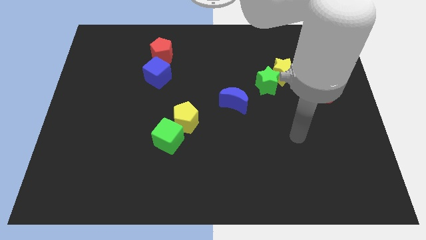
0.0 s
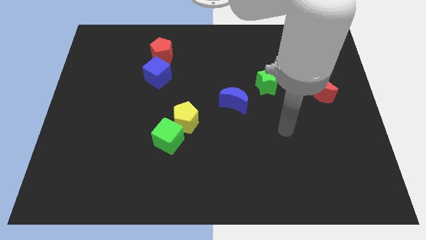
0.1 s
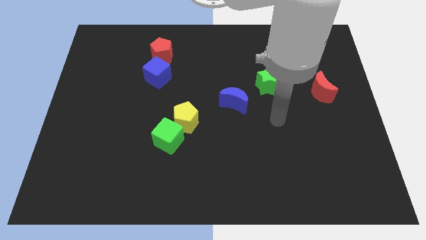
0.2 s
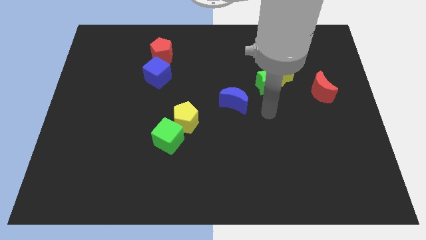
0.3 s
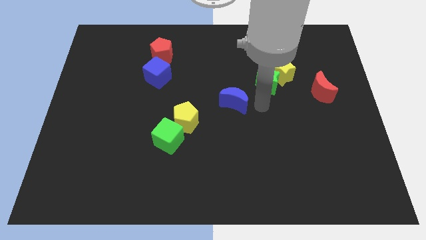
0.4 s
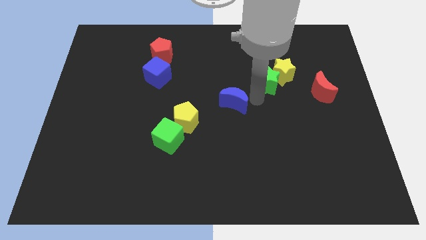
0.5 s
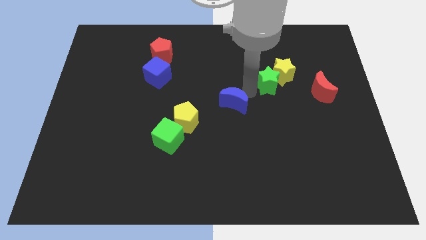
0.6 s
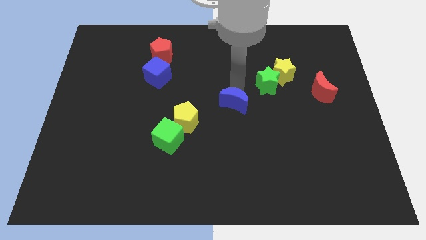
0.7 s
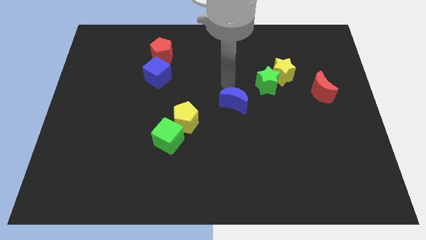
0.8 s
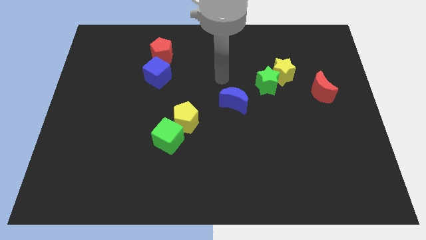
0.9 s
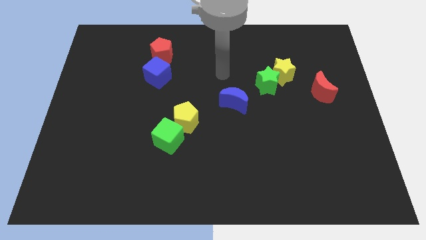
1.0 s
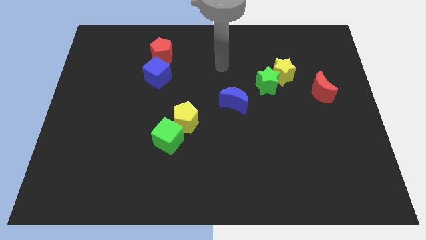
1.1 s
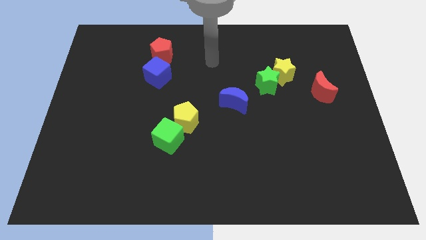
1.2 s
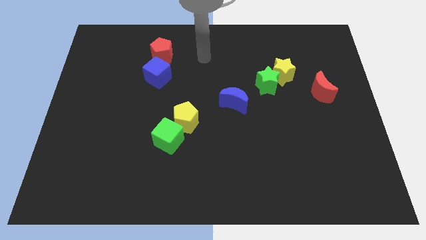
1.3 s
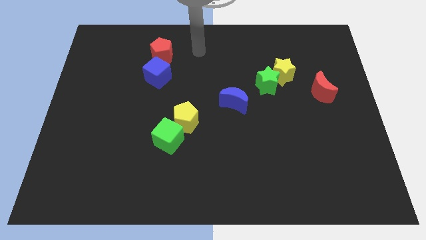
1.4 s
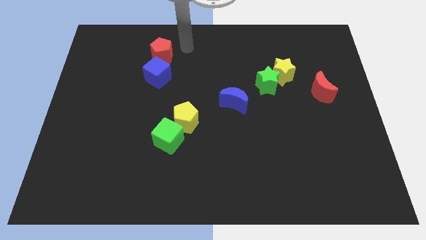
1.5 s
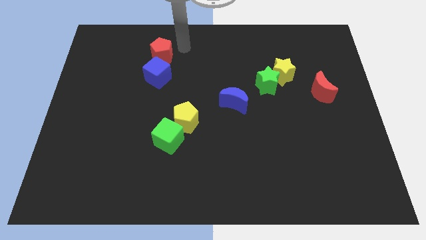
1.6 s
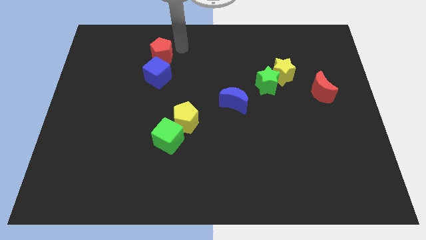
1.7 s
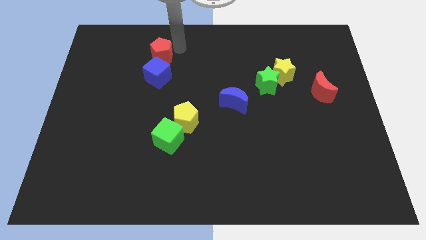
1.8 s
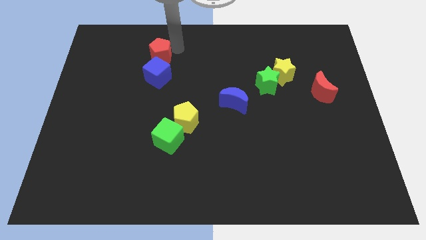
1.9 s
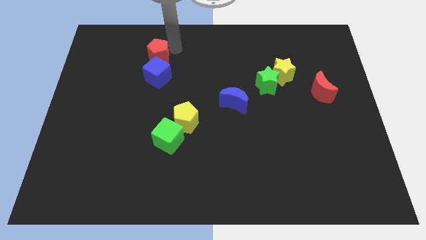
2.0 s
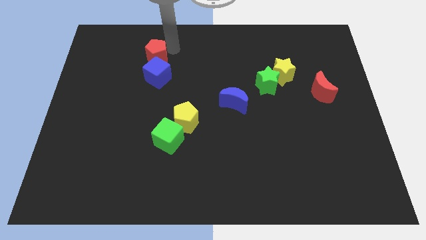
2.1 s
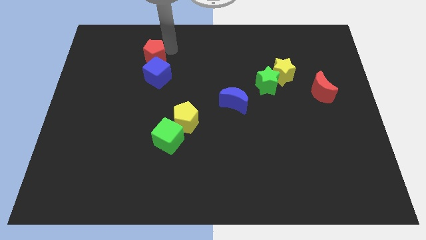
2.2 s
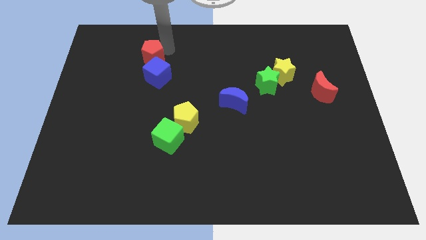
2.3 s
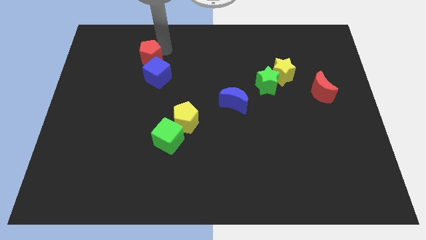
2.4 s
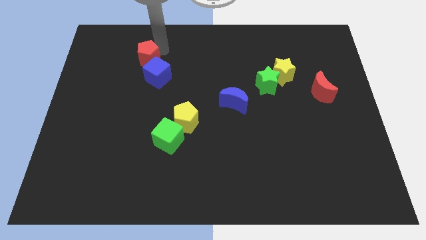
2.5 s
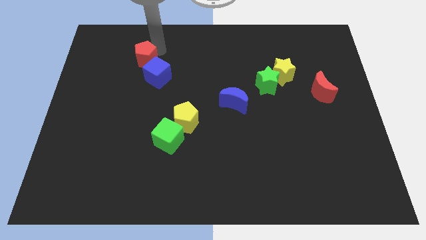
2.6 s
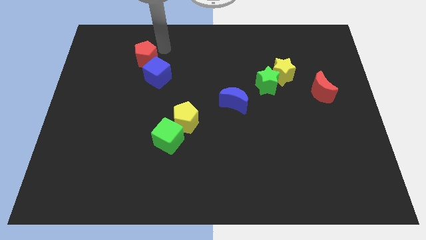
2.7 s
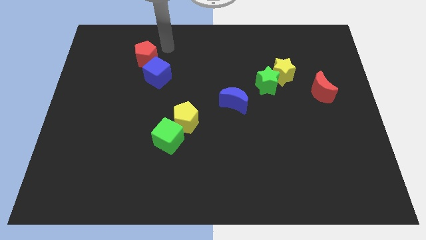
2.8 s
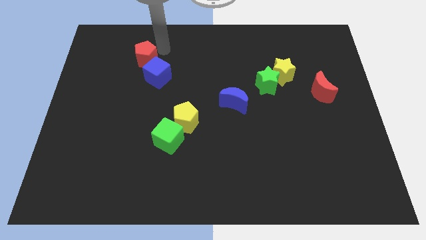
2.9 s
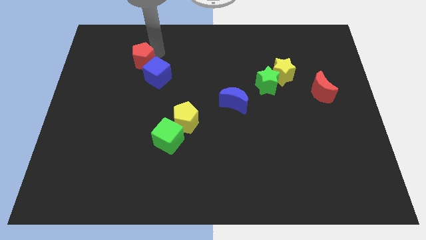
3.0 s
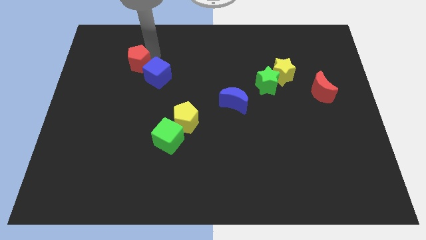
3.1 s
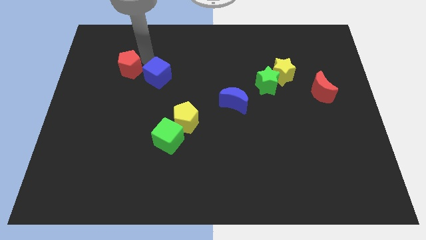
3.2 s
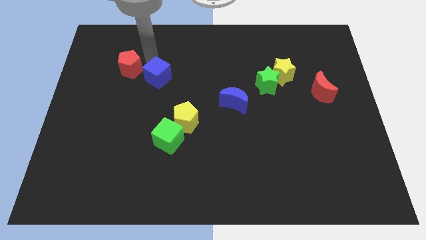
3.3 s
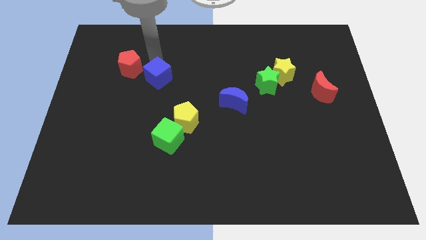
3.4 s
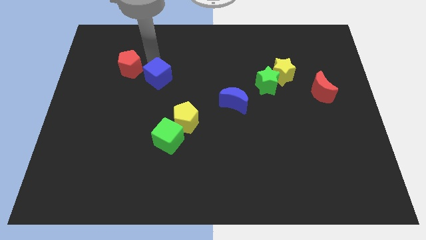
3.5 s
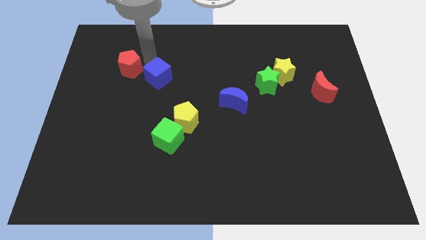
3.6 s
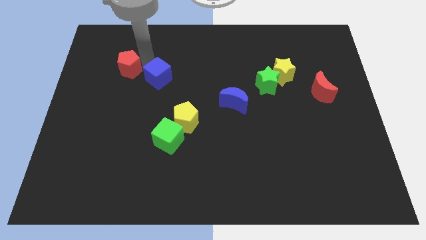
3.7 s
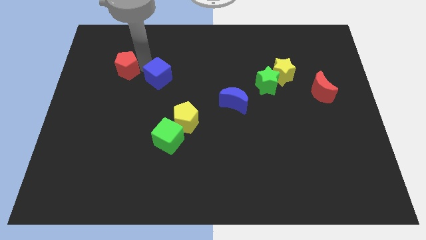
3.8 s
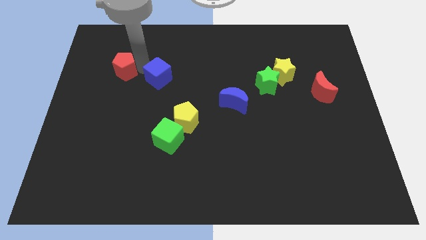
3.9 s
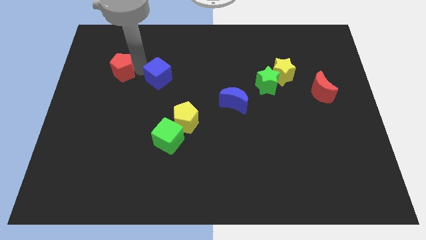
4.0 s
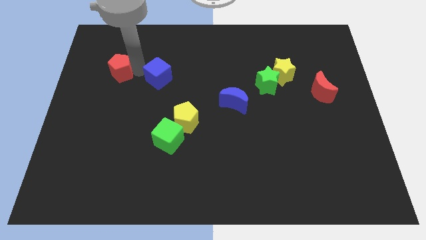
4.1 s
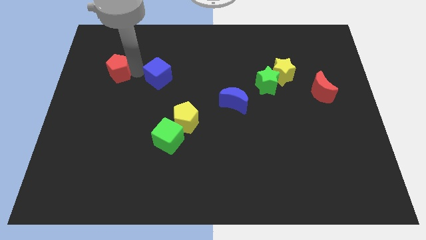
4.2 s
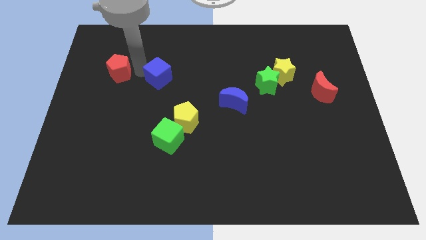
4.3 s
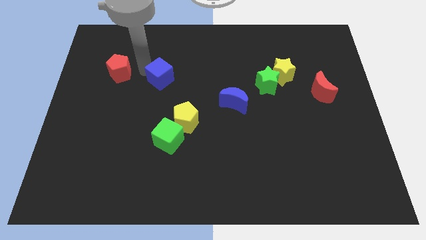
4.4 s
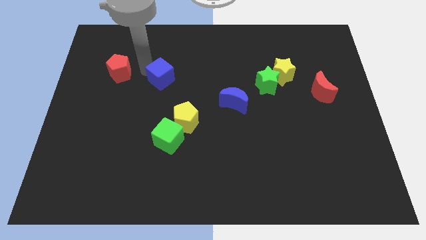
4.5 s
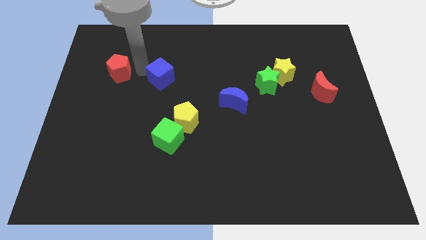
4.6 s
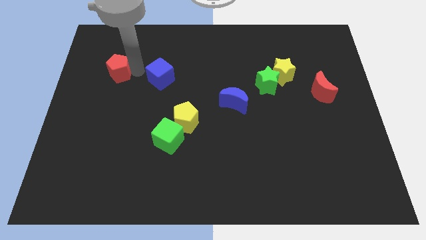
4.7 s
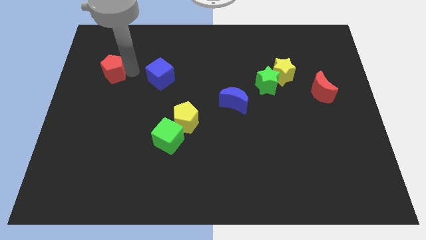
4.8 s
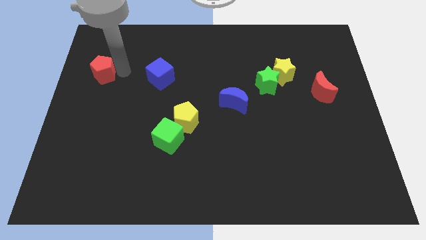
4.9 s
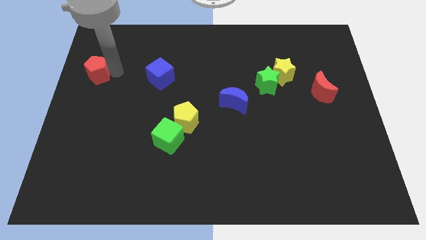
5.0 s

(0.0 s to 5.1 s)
slide the red pentagon to the center left

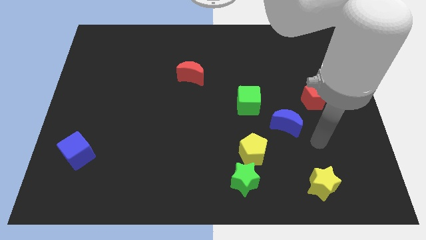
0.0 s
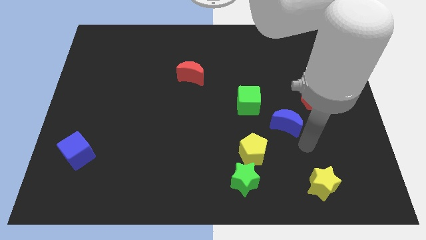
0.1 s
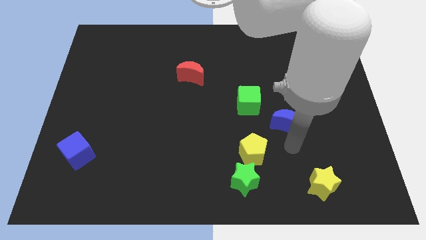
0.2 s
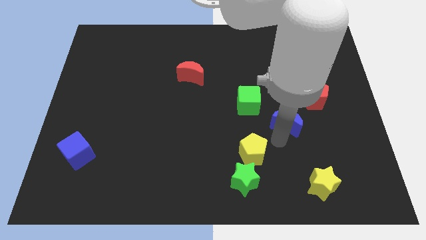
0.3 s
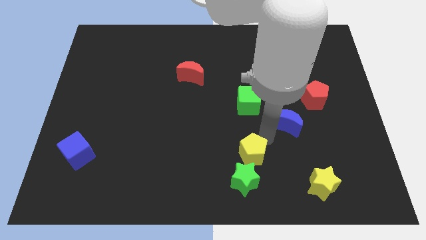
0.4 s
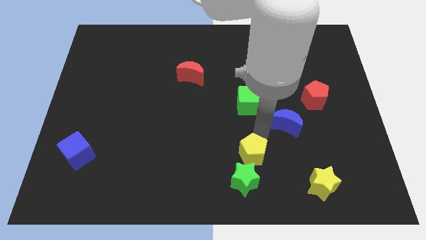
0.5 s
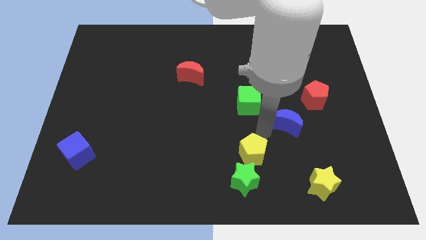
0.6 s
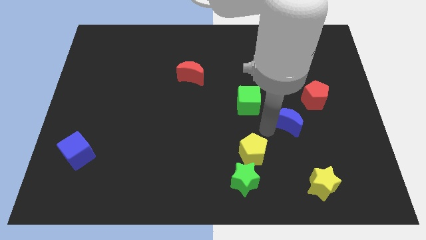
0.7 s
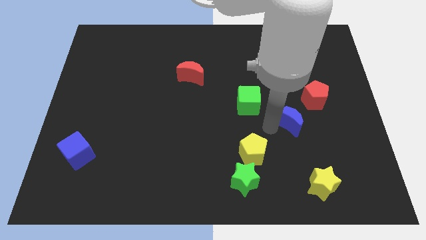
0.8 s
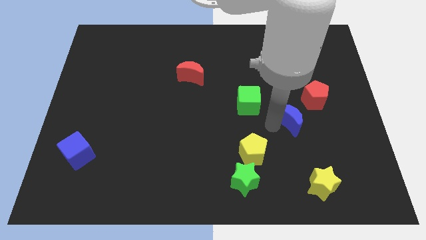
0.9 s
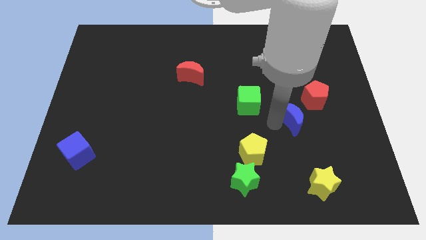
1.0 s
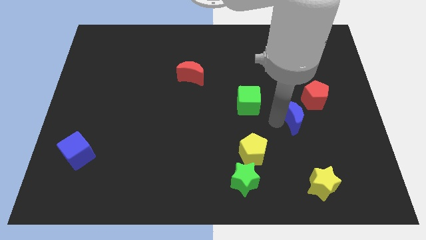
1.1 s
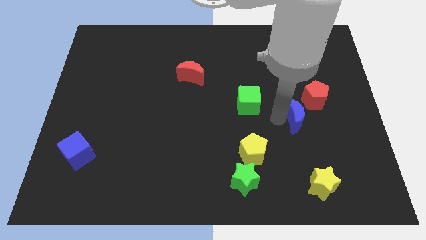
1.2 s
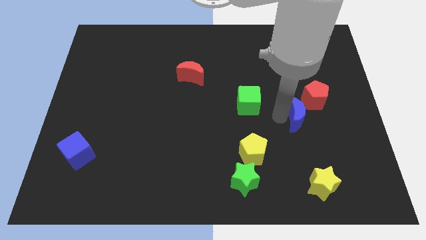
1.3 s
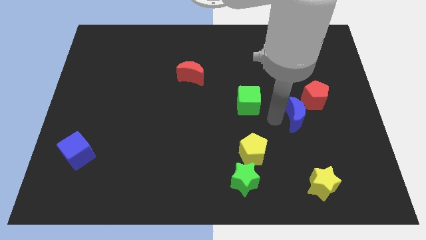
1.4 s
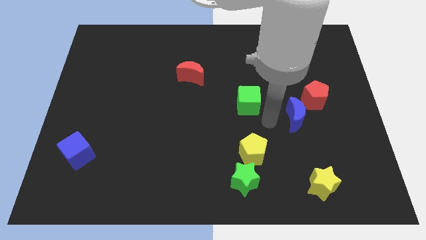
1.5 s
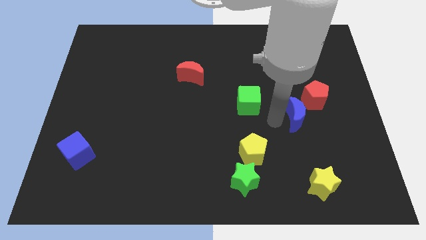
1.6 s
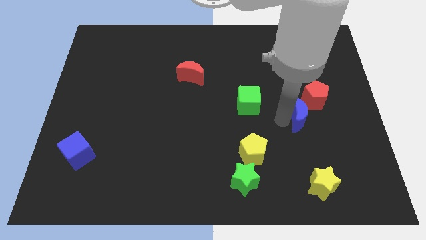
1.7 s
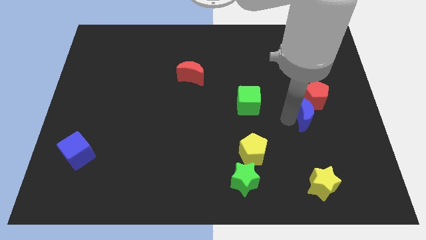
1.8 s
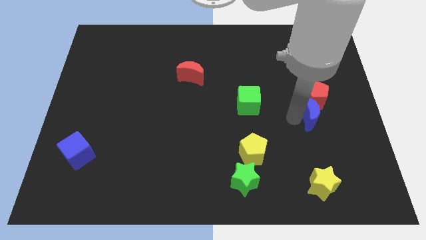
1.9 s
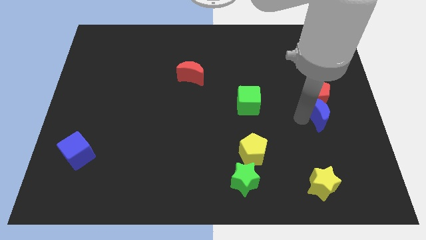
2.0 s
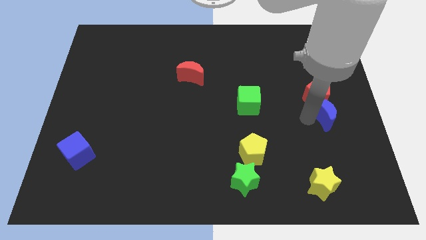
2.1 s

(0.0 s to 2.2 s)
push the blue moon to the right side
